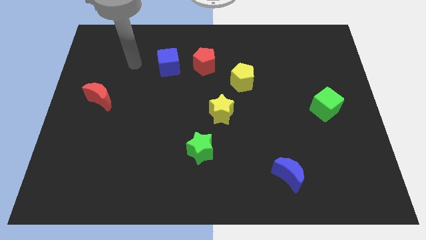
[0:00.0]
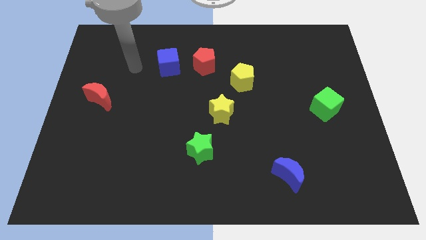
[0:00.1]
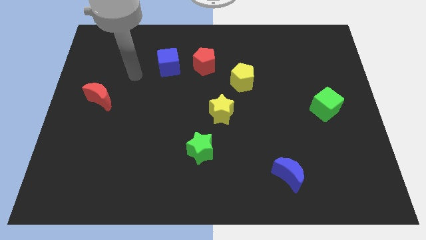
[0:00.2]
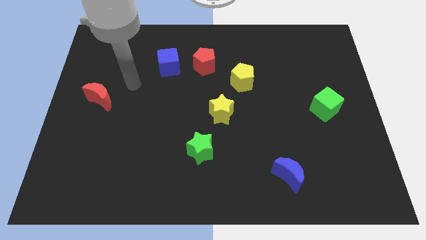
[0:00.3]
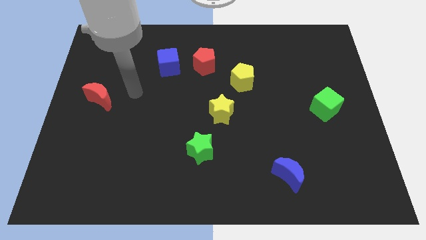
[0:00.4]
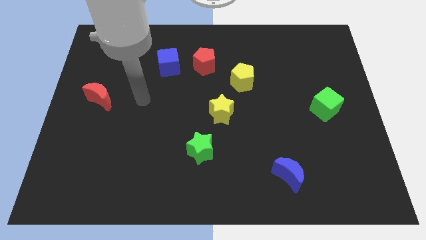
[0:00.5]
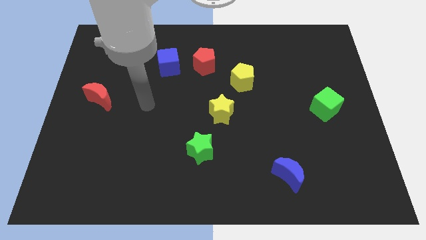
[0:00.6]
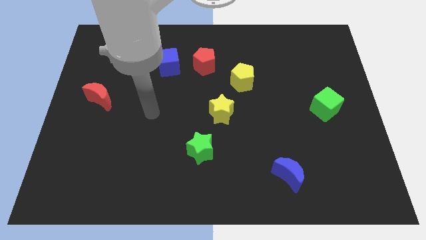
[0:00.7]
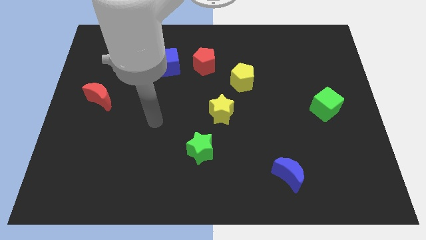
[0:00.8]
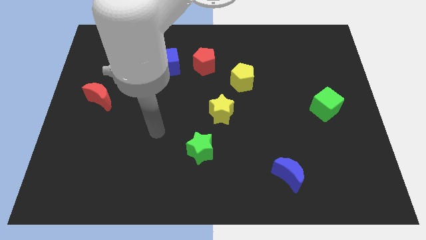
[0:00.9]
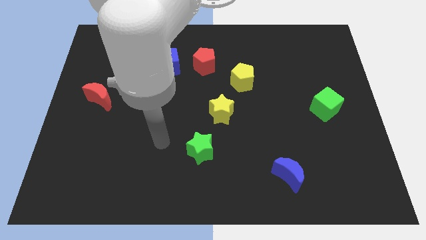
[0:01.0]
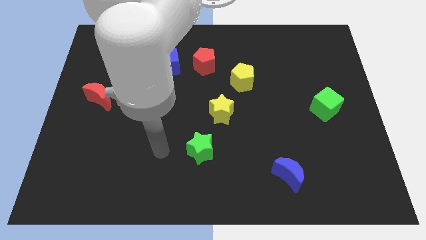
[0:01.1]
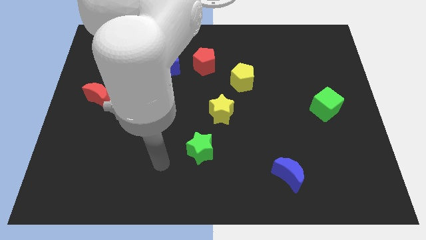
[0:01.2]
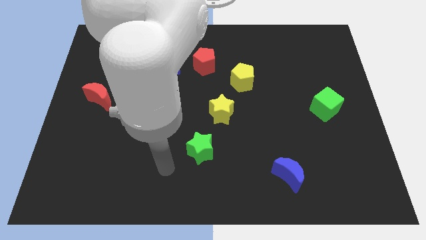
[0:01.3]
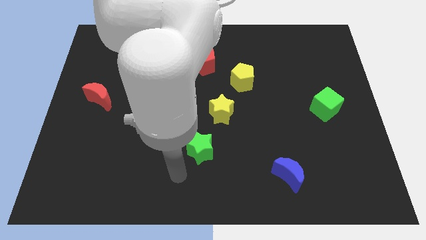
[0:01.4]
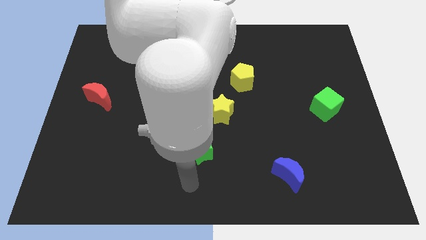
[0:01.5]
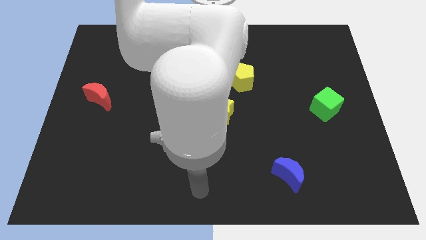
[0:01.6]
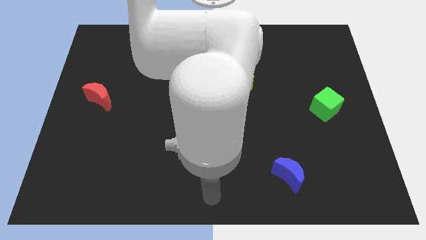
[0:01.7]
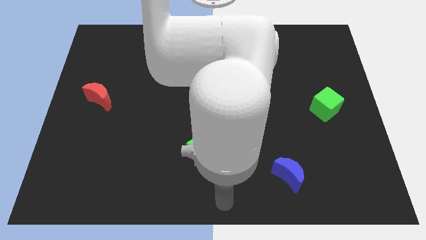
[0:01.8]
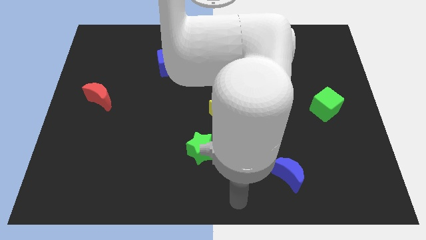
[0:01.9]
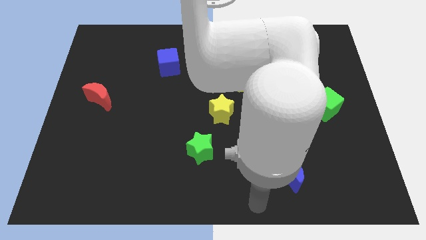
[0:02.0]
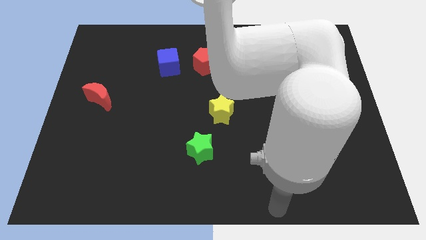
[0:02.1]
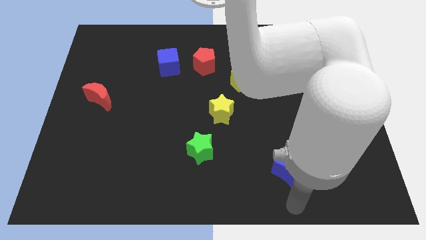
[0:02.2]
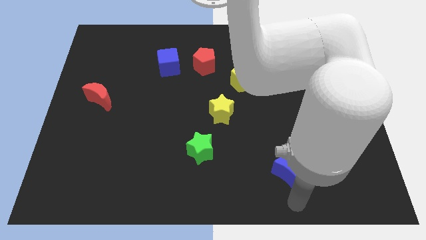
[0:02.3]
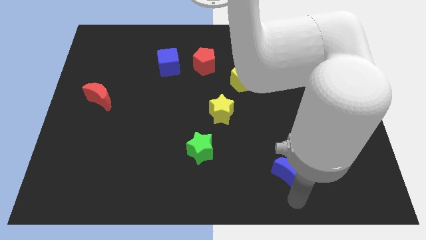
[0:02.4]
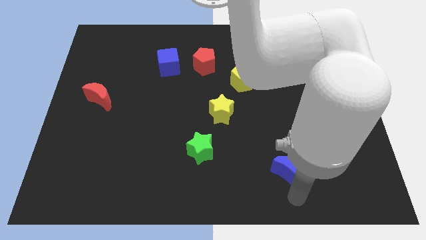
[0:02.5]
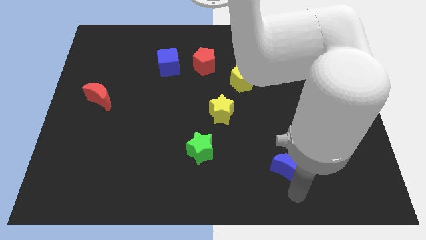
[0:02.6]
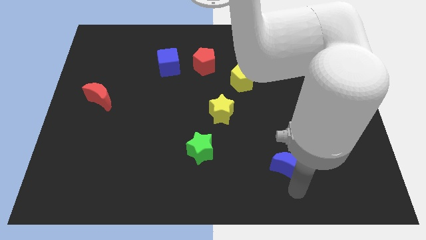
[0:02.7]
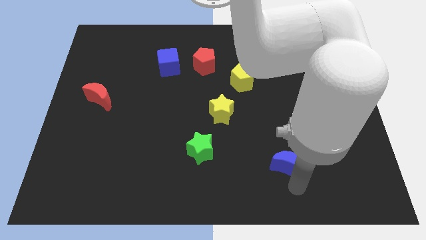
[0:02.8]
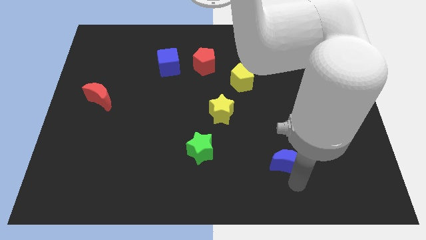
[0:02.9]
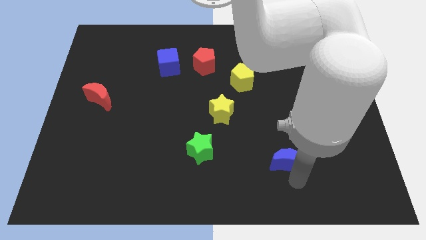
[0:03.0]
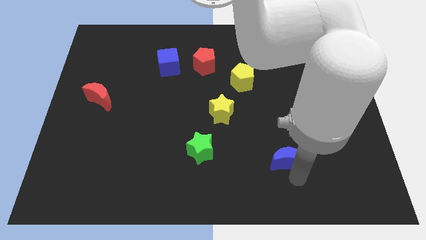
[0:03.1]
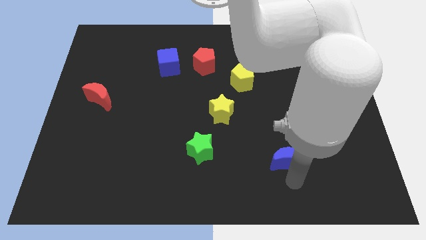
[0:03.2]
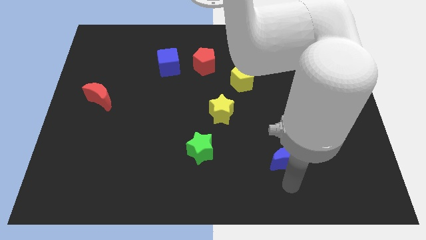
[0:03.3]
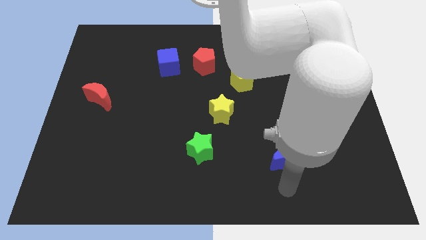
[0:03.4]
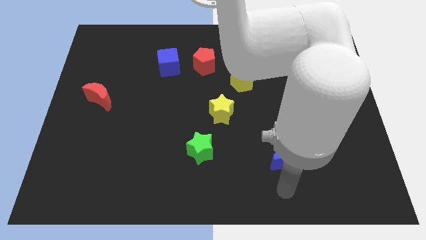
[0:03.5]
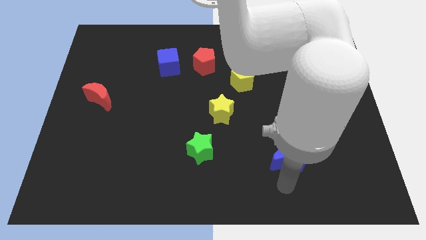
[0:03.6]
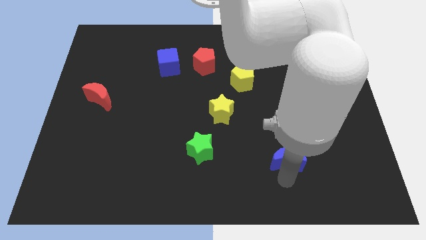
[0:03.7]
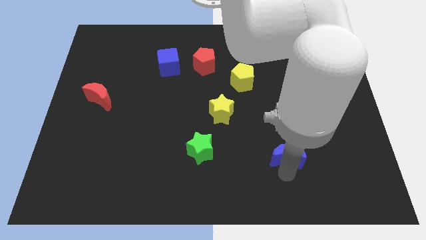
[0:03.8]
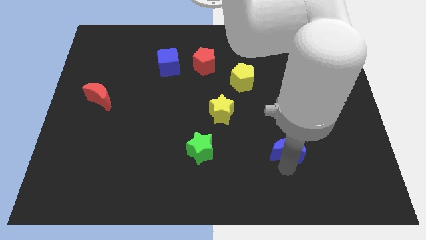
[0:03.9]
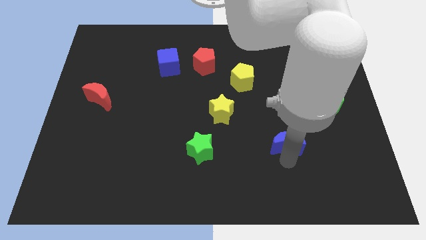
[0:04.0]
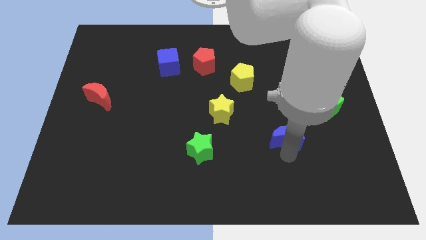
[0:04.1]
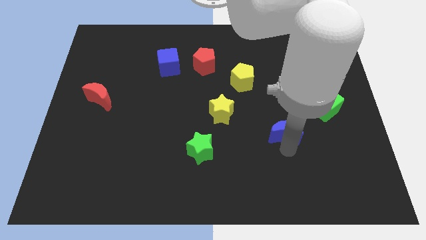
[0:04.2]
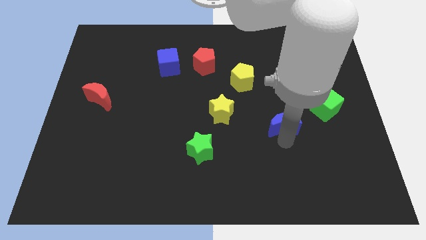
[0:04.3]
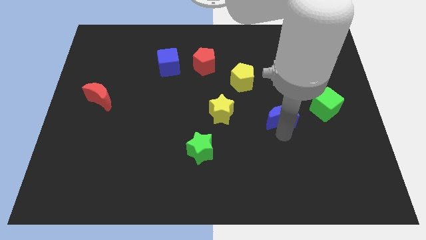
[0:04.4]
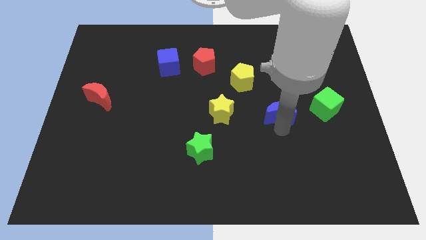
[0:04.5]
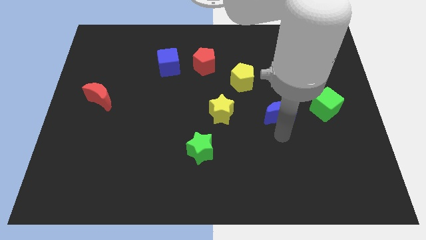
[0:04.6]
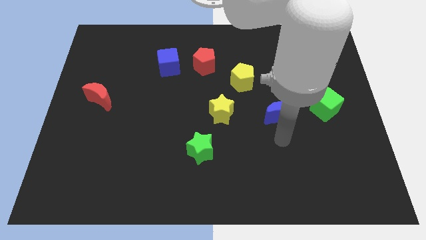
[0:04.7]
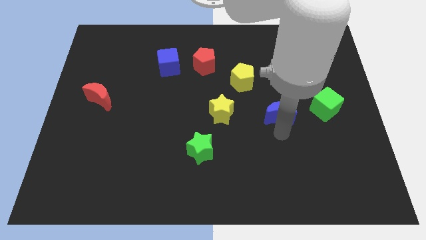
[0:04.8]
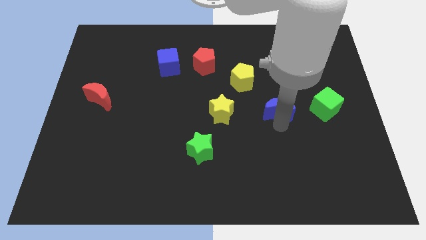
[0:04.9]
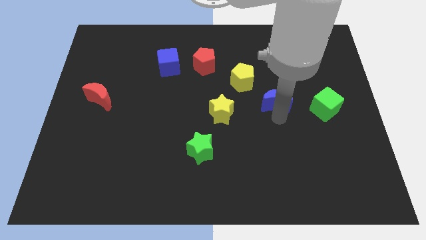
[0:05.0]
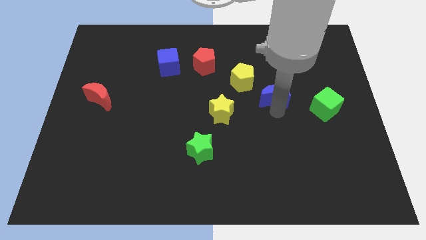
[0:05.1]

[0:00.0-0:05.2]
slide the blue moon upwards

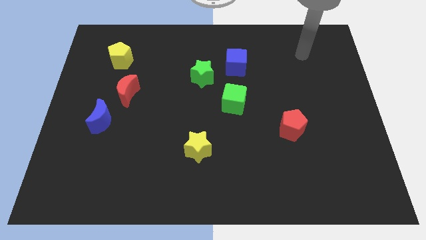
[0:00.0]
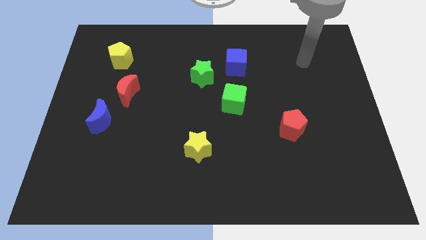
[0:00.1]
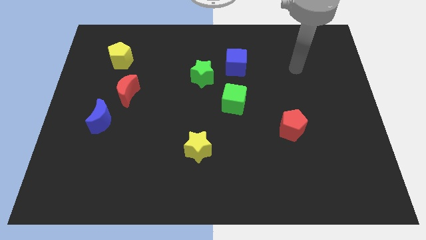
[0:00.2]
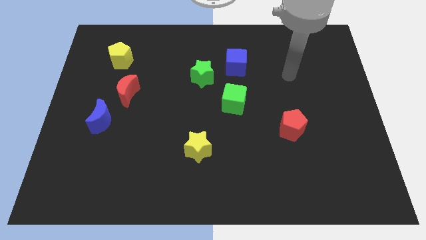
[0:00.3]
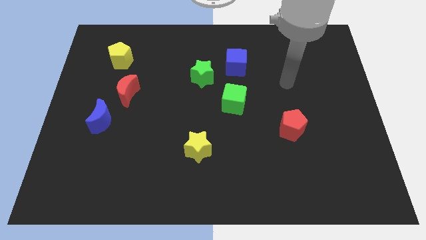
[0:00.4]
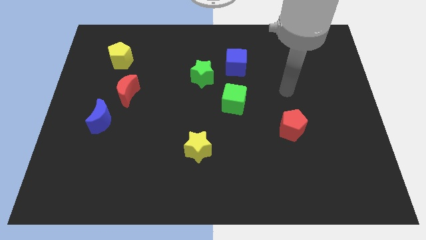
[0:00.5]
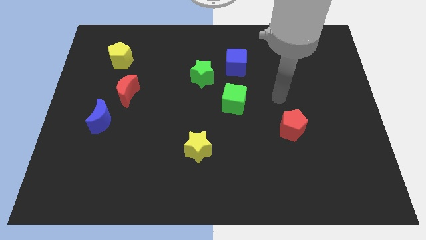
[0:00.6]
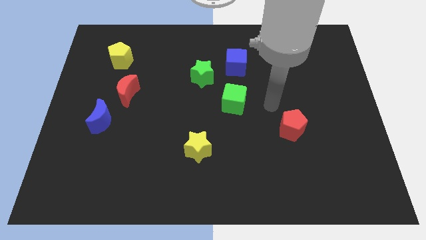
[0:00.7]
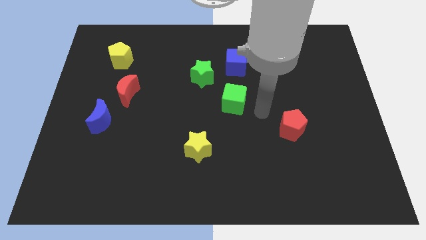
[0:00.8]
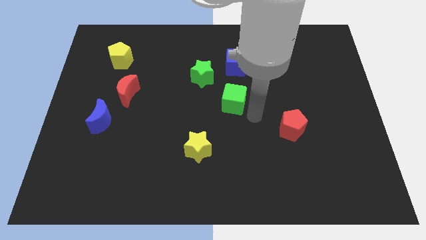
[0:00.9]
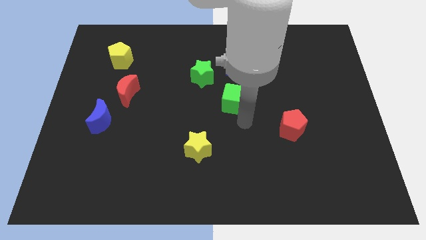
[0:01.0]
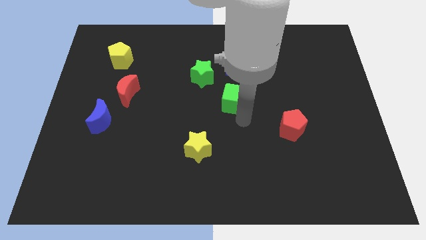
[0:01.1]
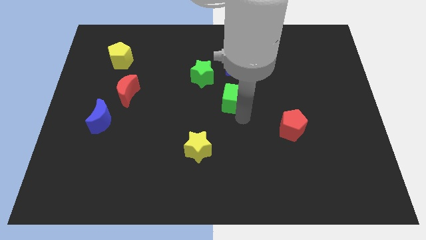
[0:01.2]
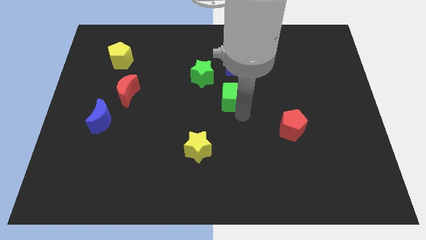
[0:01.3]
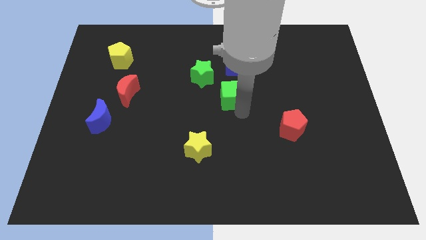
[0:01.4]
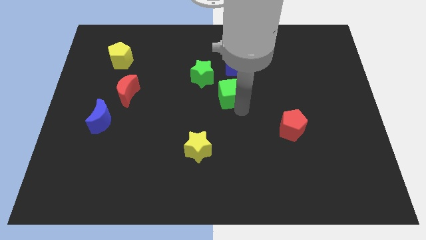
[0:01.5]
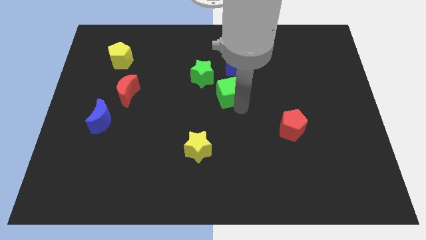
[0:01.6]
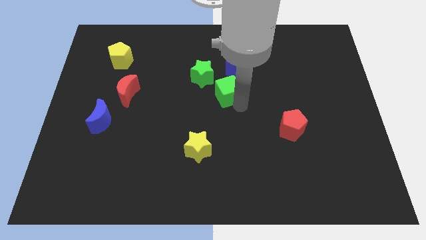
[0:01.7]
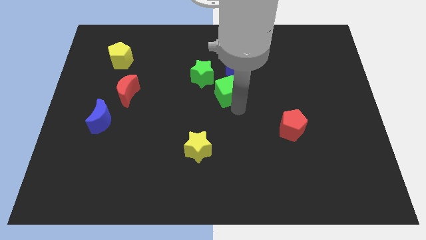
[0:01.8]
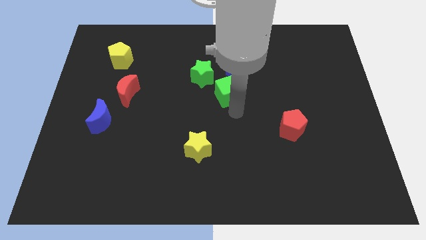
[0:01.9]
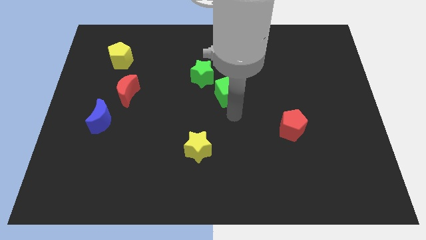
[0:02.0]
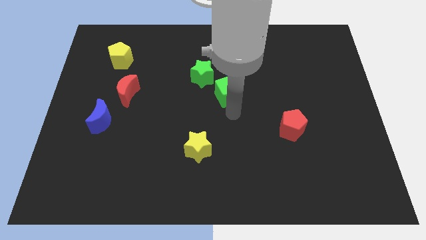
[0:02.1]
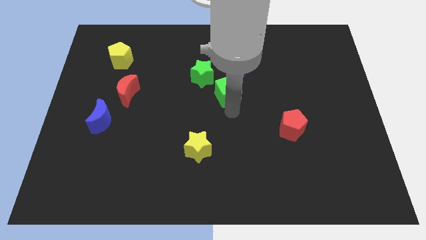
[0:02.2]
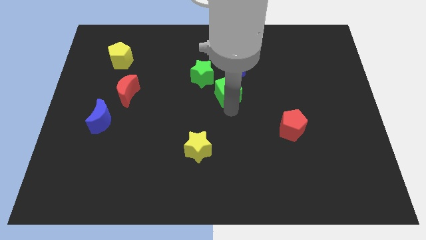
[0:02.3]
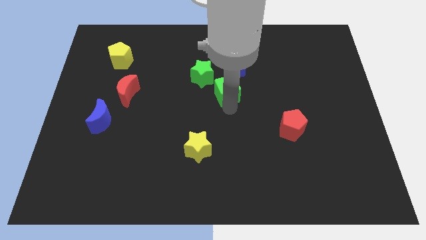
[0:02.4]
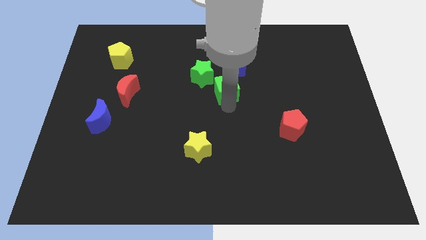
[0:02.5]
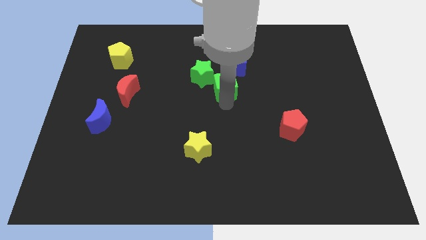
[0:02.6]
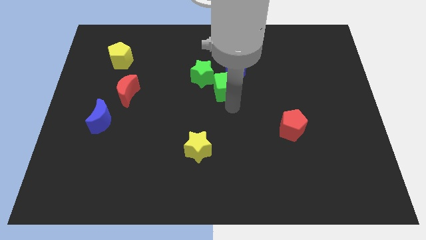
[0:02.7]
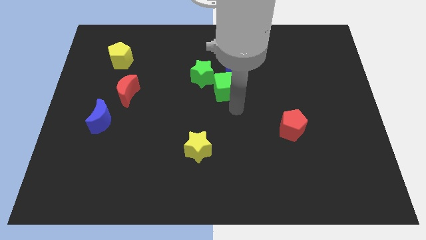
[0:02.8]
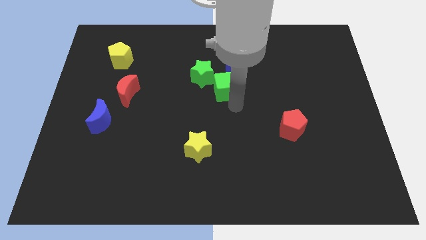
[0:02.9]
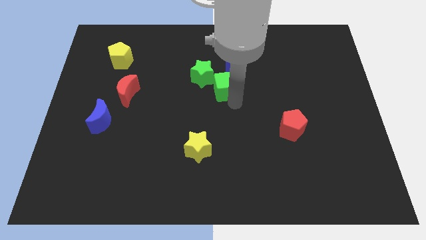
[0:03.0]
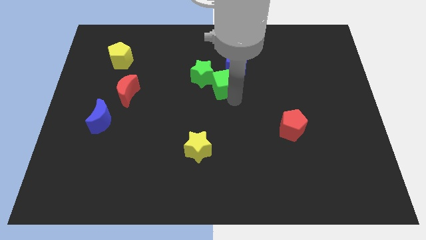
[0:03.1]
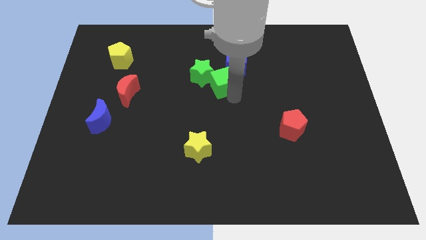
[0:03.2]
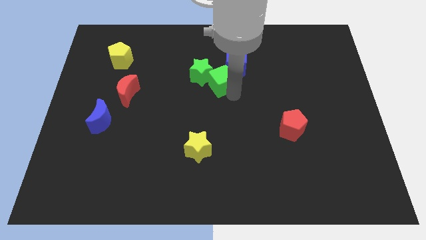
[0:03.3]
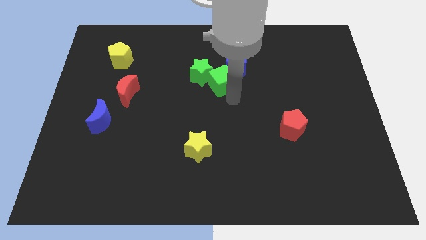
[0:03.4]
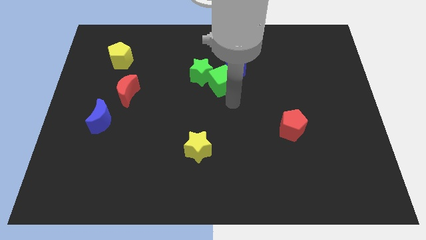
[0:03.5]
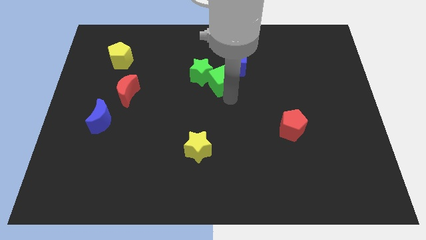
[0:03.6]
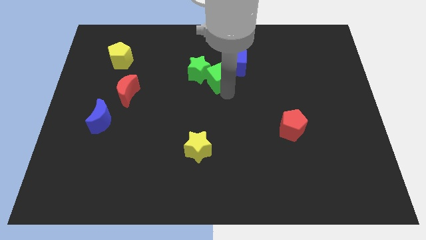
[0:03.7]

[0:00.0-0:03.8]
move the green cube diagonally up and to the left a bit
